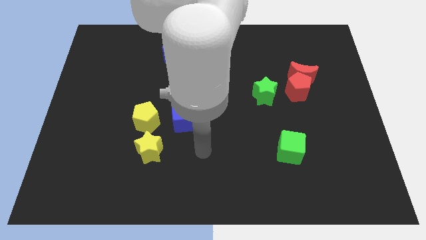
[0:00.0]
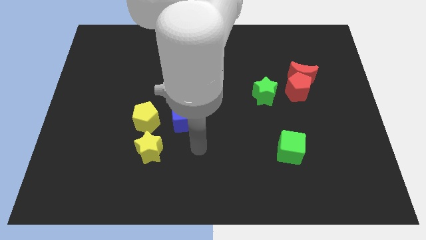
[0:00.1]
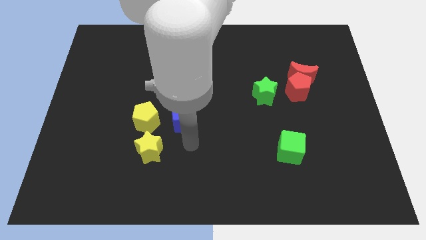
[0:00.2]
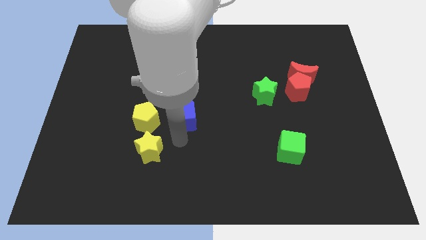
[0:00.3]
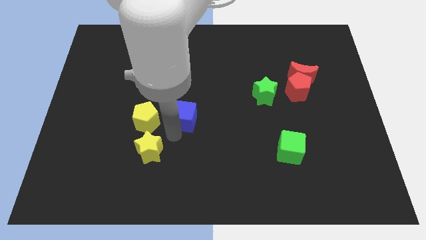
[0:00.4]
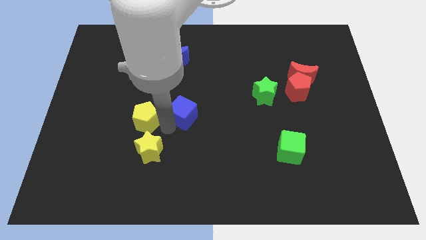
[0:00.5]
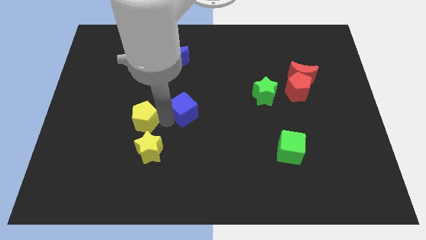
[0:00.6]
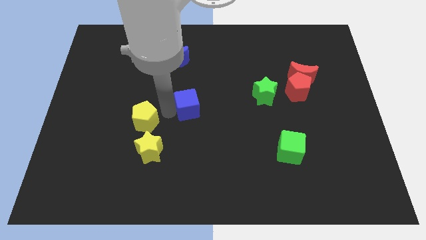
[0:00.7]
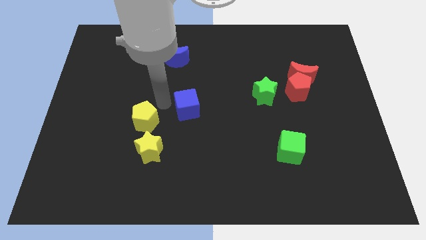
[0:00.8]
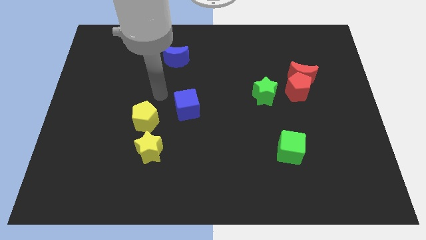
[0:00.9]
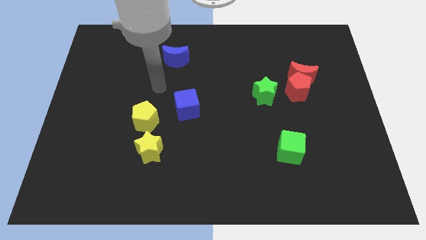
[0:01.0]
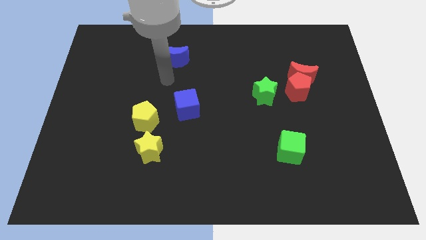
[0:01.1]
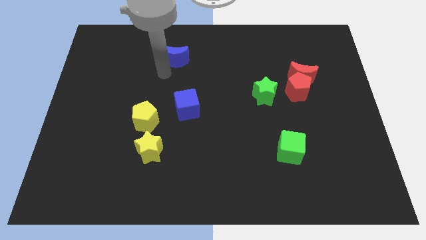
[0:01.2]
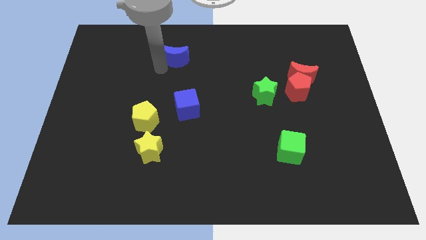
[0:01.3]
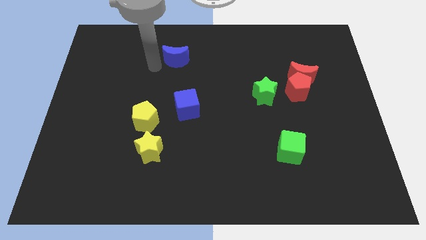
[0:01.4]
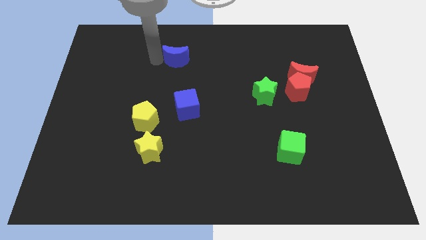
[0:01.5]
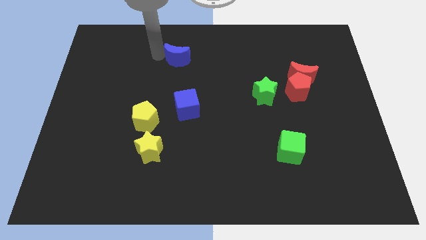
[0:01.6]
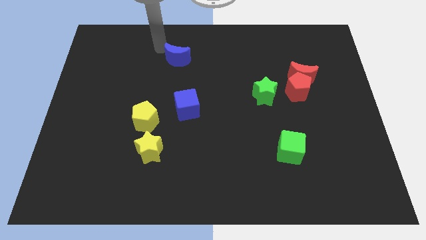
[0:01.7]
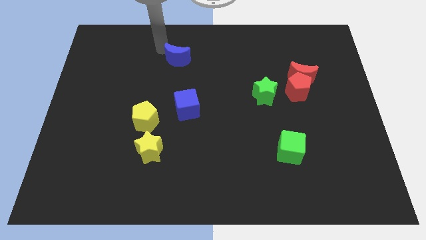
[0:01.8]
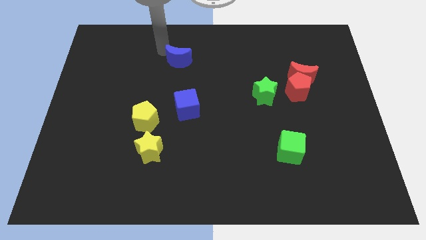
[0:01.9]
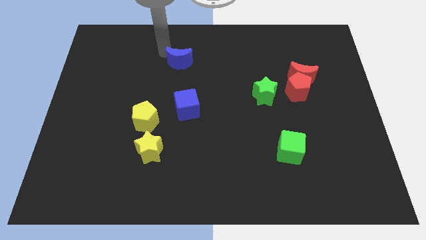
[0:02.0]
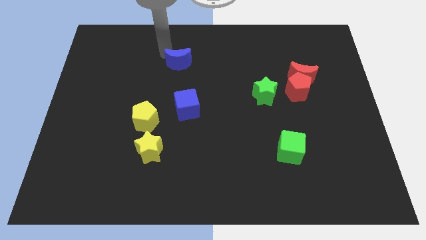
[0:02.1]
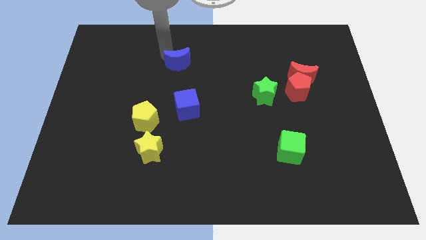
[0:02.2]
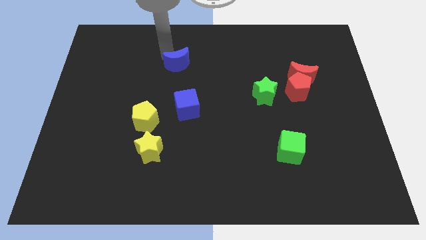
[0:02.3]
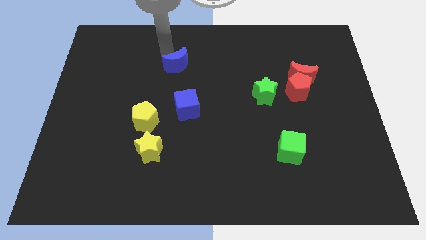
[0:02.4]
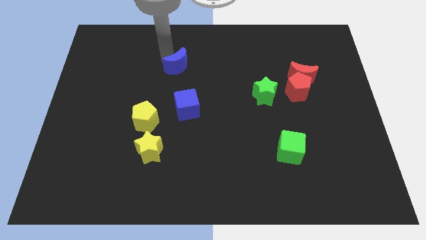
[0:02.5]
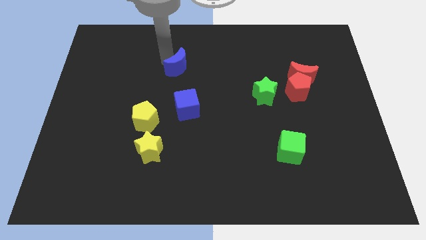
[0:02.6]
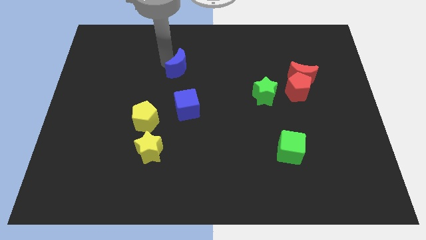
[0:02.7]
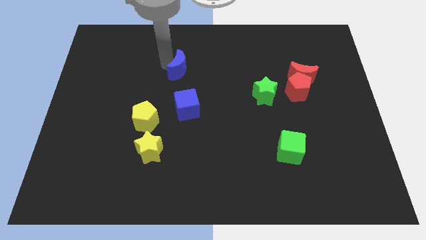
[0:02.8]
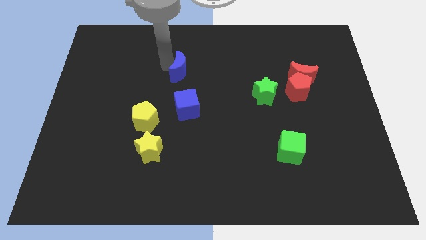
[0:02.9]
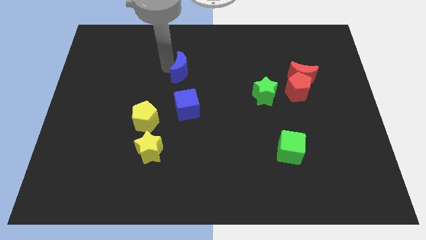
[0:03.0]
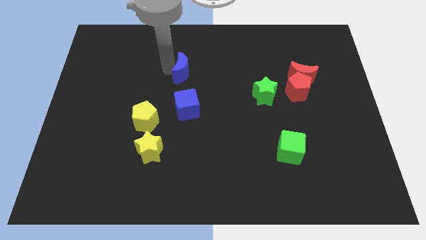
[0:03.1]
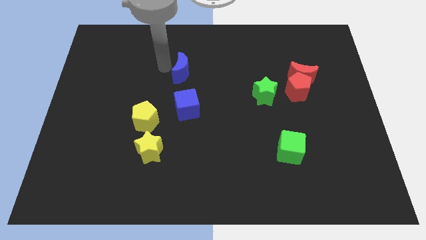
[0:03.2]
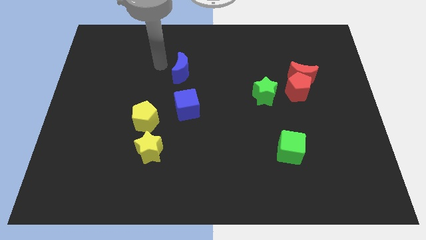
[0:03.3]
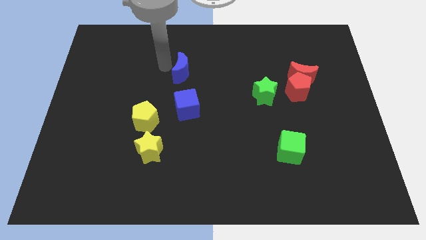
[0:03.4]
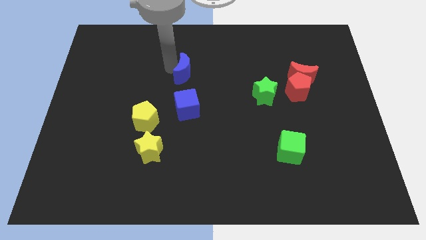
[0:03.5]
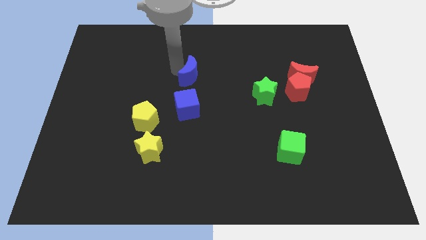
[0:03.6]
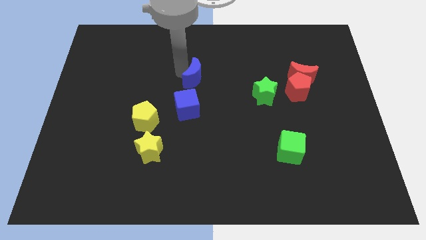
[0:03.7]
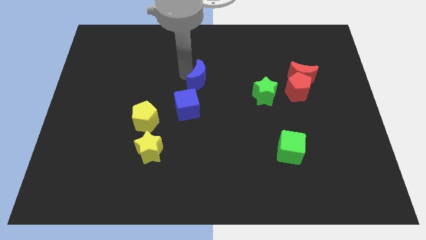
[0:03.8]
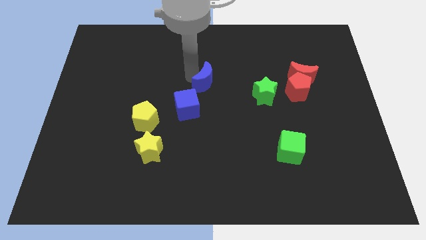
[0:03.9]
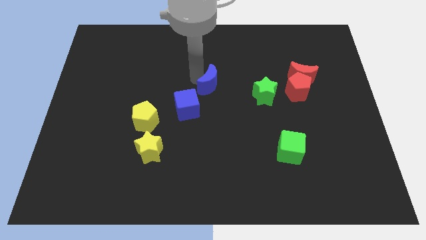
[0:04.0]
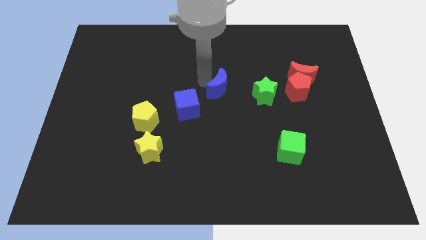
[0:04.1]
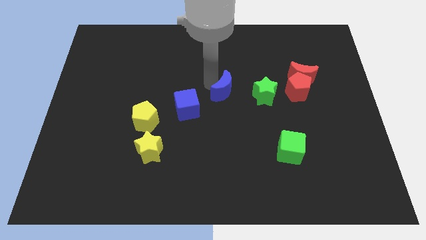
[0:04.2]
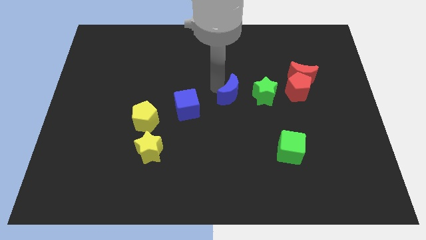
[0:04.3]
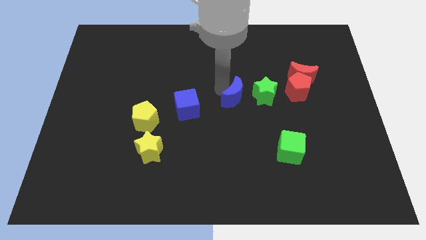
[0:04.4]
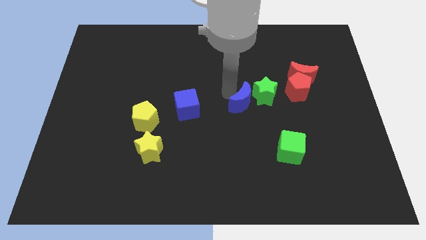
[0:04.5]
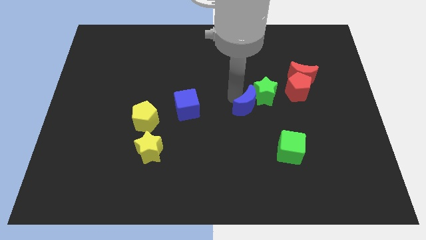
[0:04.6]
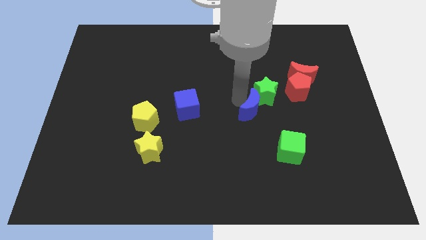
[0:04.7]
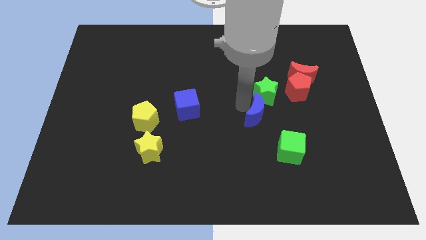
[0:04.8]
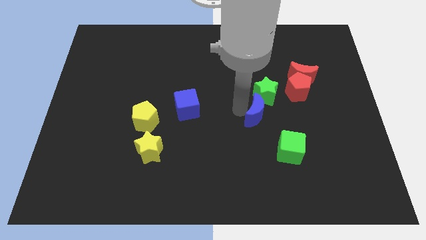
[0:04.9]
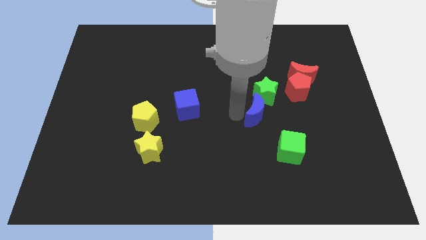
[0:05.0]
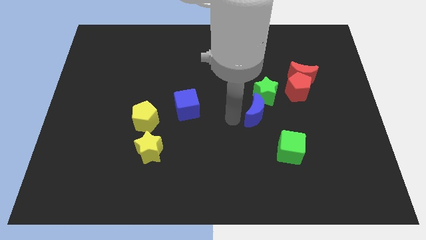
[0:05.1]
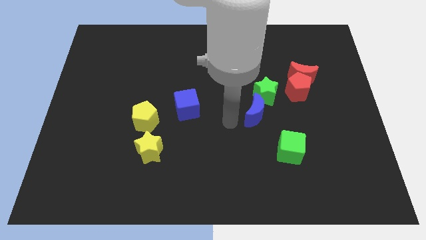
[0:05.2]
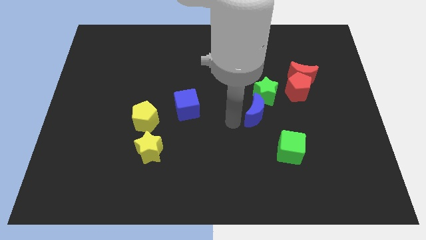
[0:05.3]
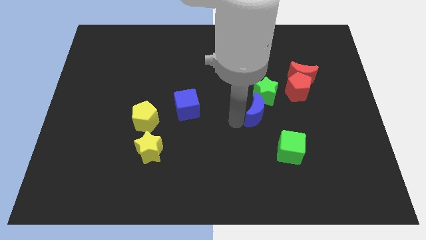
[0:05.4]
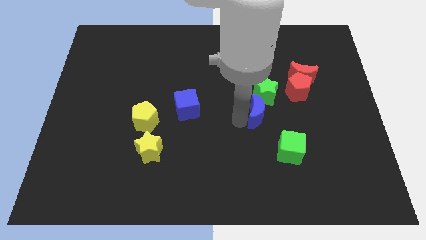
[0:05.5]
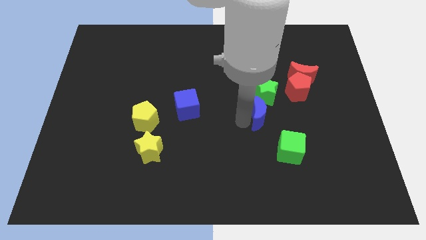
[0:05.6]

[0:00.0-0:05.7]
move the blue moon to the bottom left side of the red pentagon

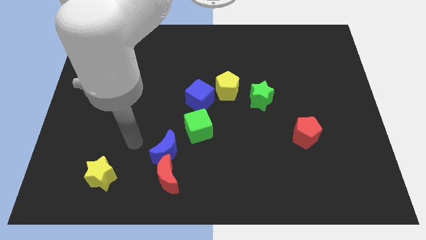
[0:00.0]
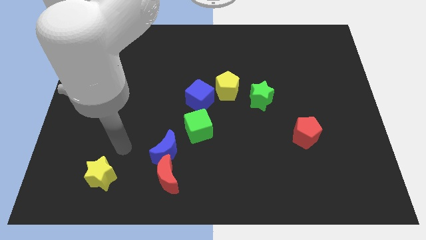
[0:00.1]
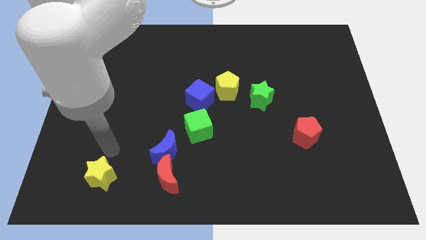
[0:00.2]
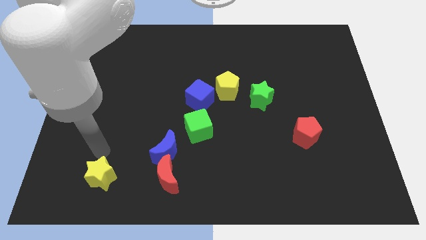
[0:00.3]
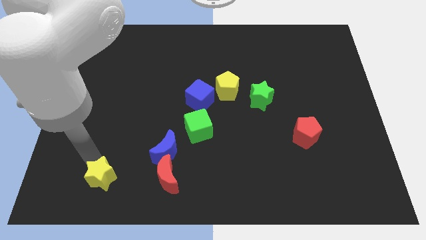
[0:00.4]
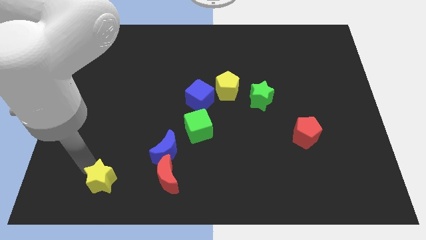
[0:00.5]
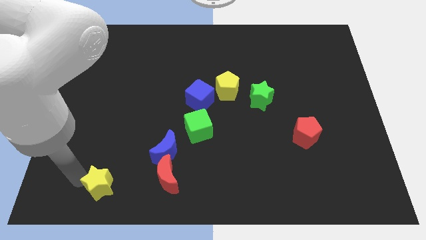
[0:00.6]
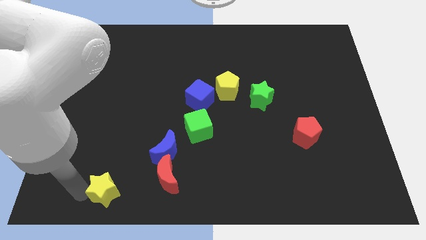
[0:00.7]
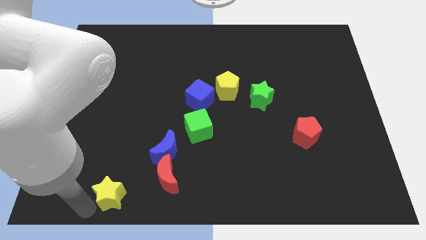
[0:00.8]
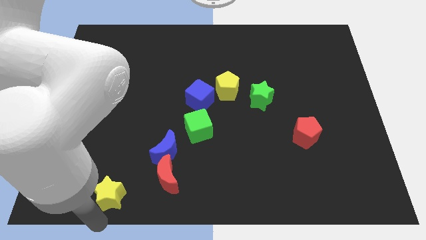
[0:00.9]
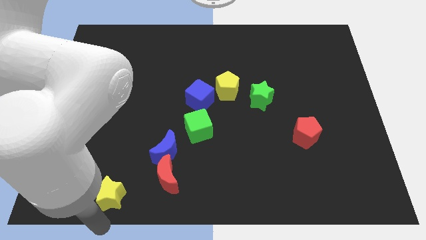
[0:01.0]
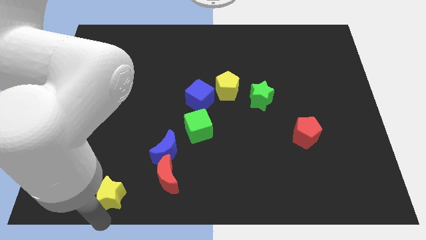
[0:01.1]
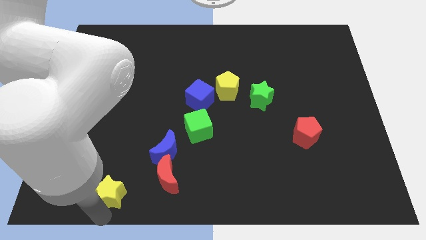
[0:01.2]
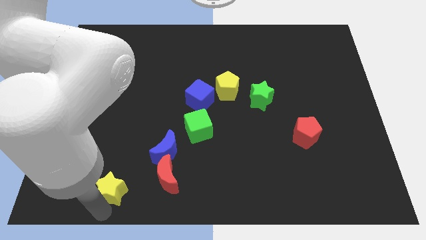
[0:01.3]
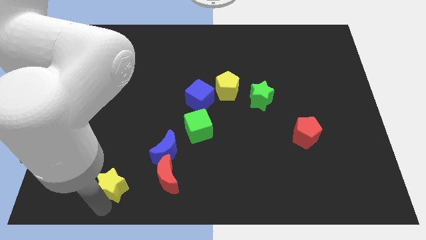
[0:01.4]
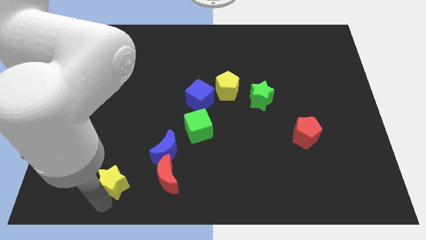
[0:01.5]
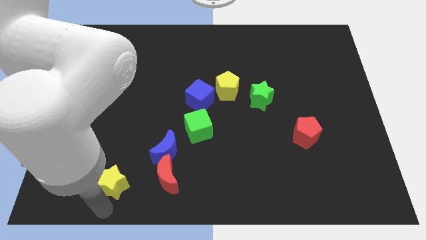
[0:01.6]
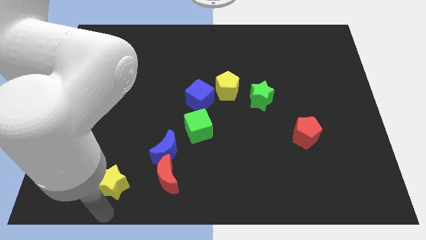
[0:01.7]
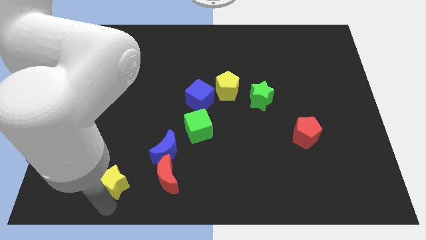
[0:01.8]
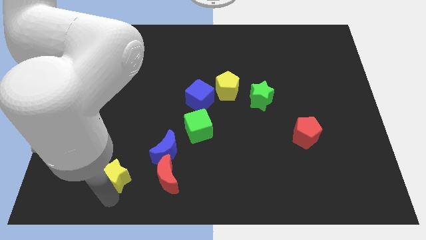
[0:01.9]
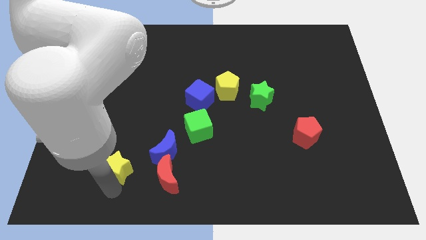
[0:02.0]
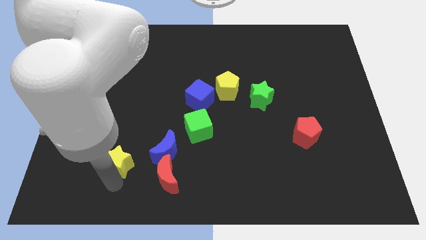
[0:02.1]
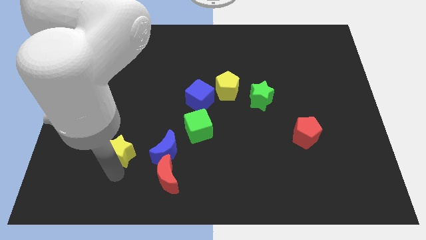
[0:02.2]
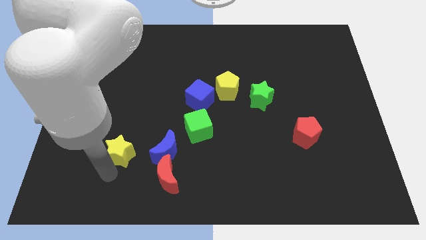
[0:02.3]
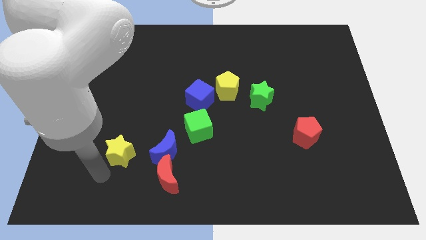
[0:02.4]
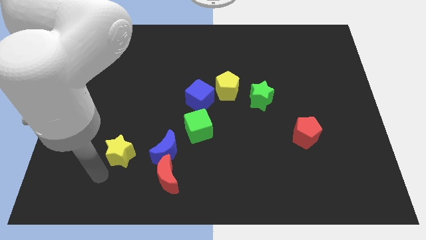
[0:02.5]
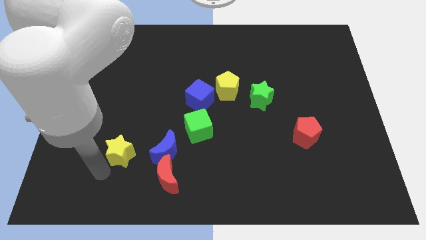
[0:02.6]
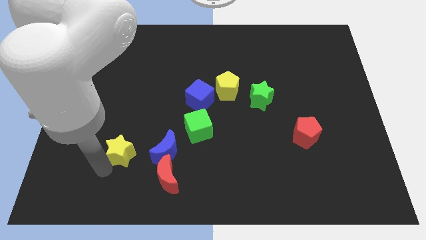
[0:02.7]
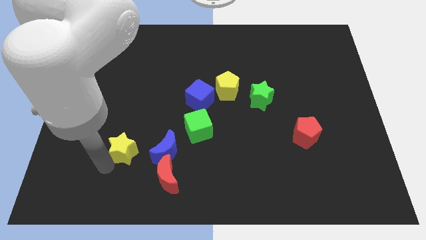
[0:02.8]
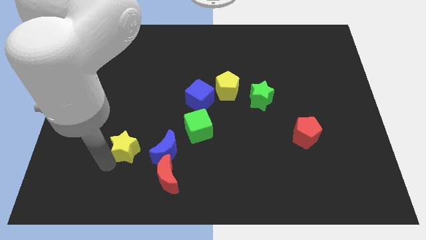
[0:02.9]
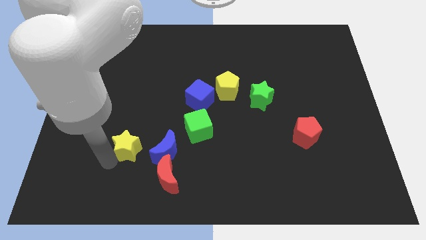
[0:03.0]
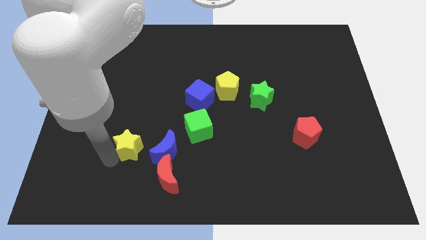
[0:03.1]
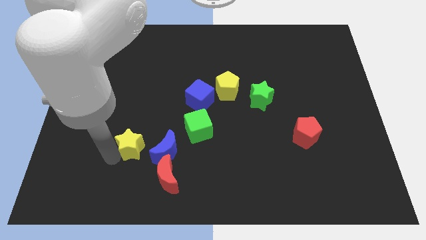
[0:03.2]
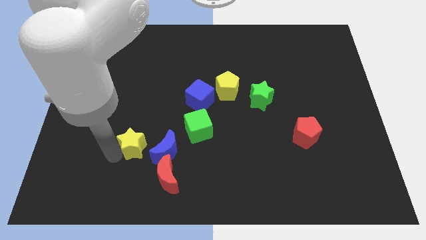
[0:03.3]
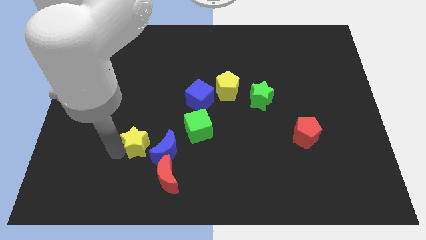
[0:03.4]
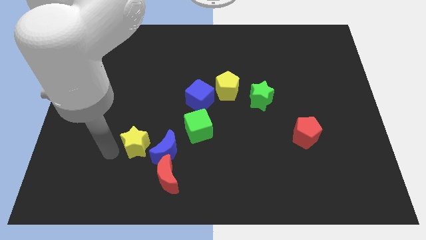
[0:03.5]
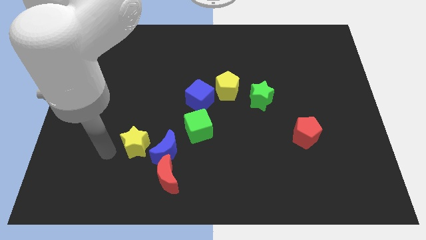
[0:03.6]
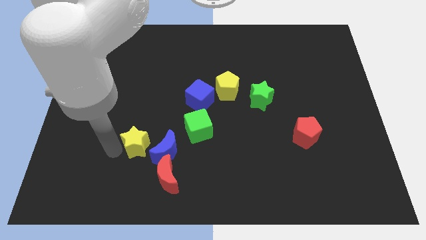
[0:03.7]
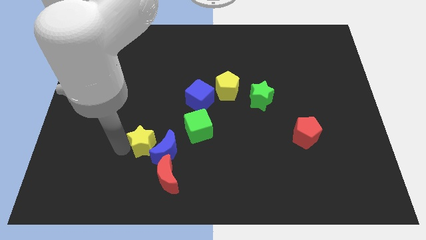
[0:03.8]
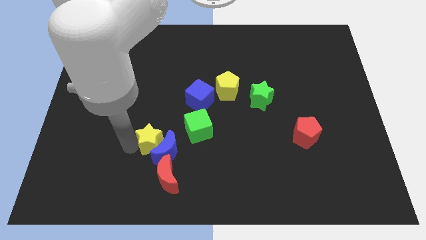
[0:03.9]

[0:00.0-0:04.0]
move the yellow star to the top side of the red moon
